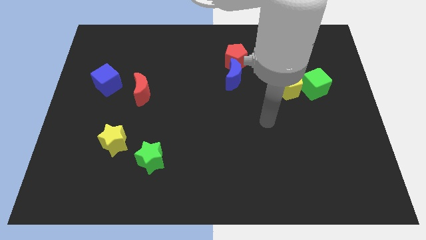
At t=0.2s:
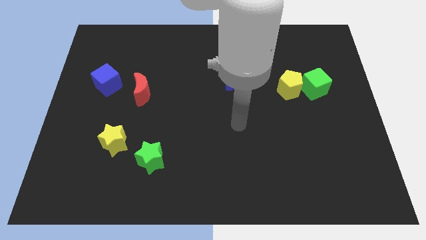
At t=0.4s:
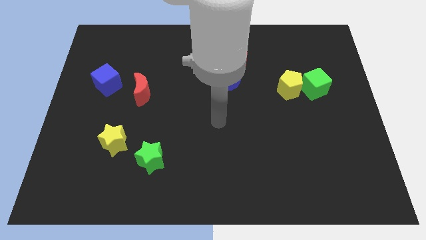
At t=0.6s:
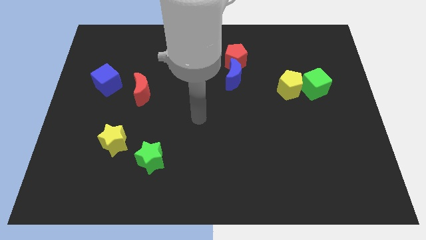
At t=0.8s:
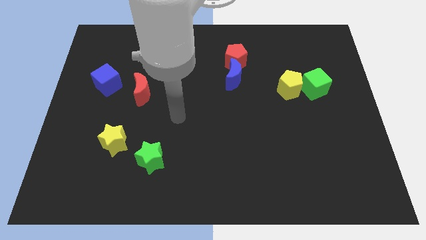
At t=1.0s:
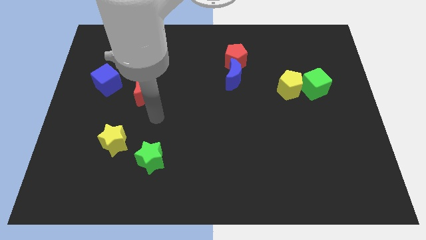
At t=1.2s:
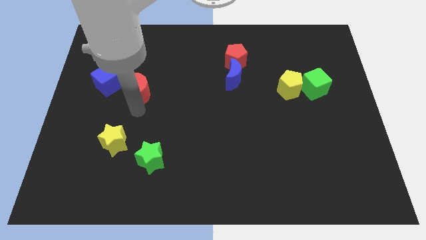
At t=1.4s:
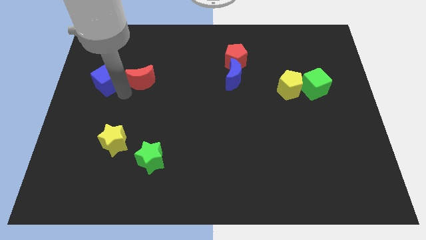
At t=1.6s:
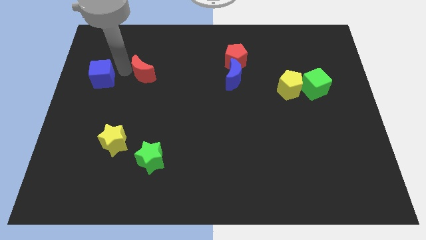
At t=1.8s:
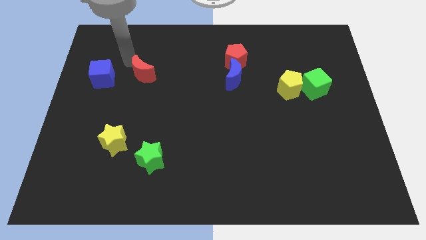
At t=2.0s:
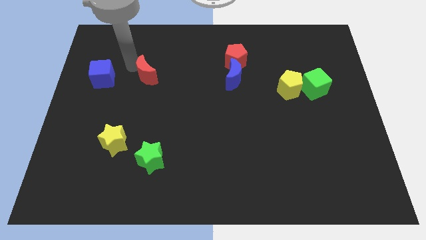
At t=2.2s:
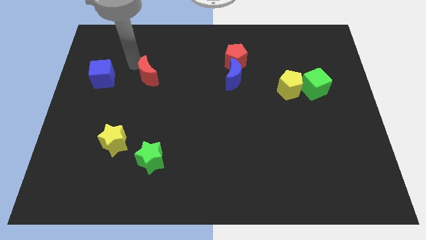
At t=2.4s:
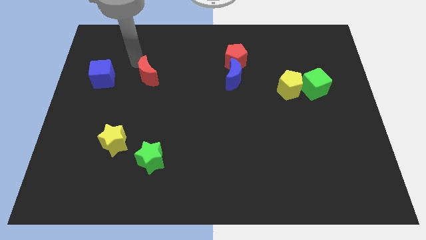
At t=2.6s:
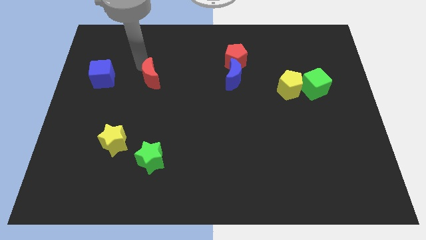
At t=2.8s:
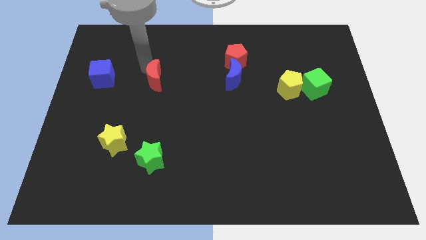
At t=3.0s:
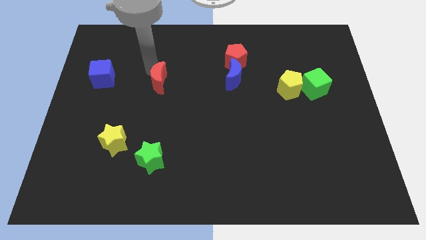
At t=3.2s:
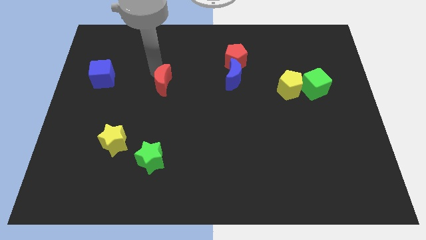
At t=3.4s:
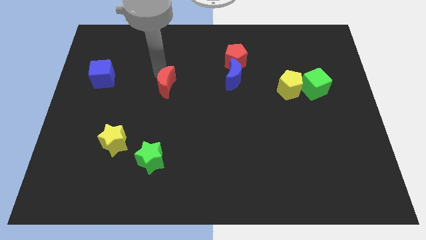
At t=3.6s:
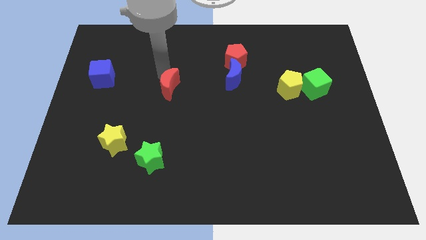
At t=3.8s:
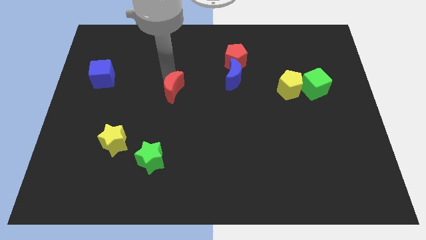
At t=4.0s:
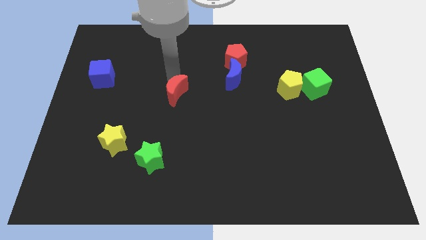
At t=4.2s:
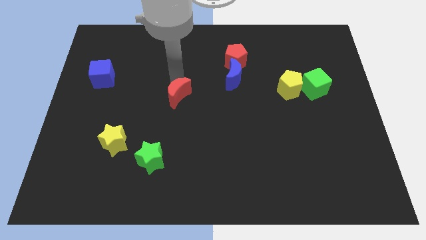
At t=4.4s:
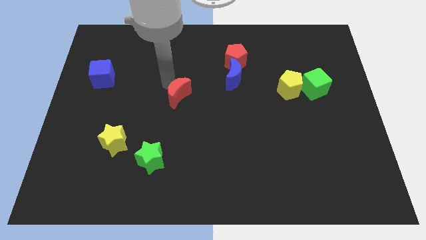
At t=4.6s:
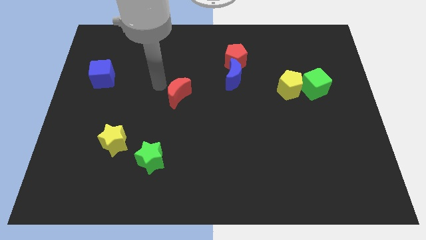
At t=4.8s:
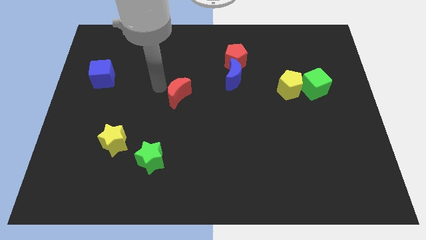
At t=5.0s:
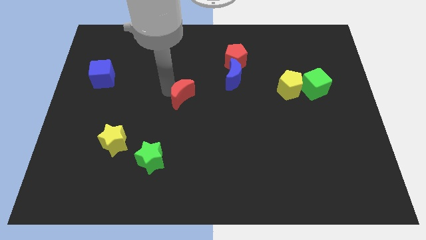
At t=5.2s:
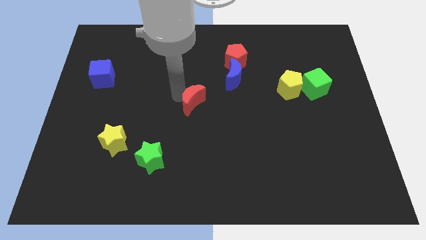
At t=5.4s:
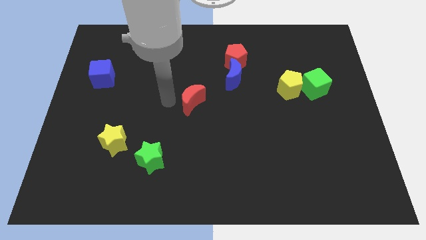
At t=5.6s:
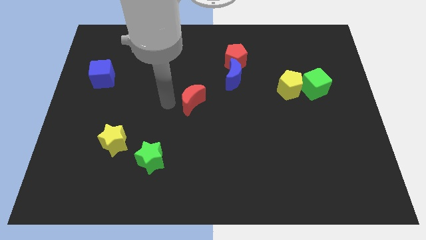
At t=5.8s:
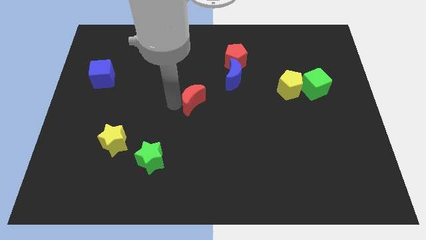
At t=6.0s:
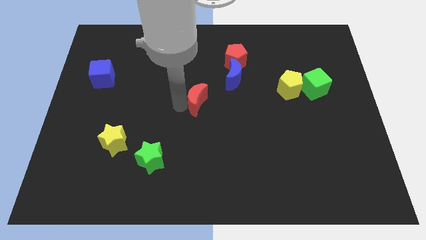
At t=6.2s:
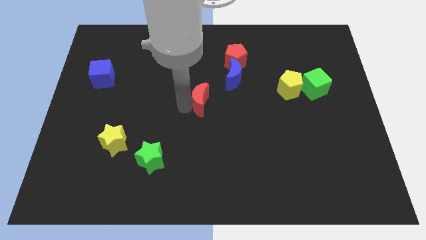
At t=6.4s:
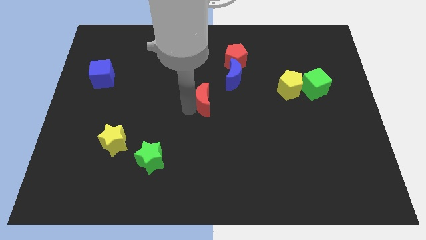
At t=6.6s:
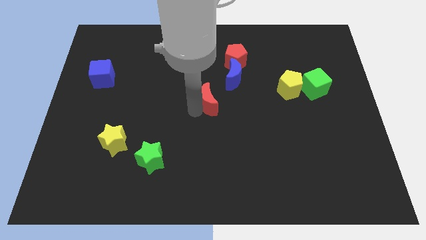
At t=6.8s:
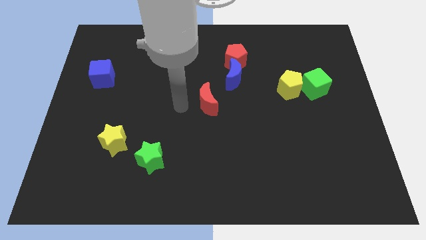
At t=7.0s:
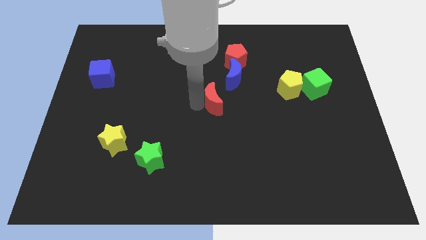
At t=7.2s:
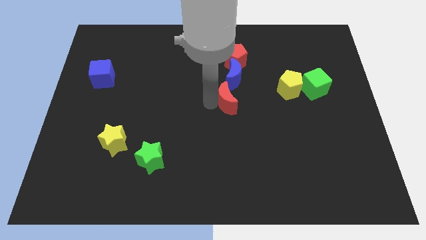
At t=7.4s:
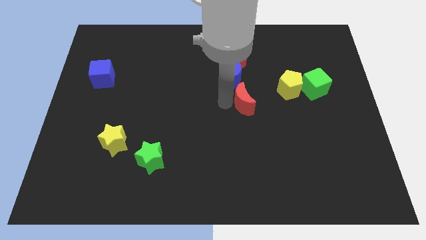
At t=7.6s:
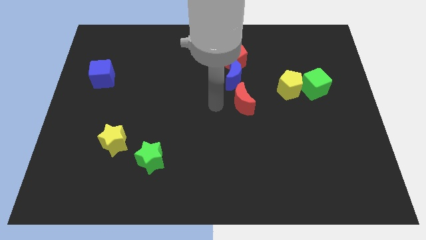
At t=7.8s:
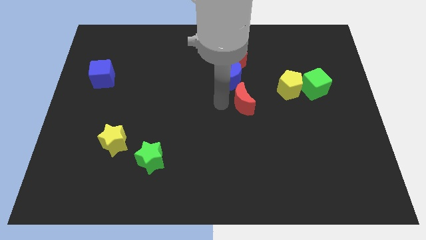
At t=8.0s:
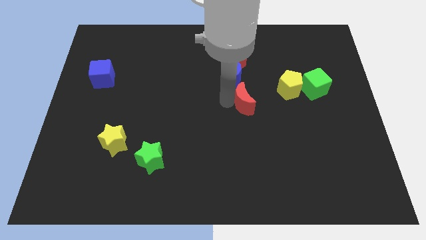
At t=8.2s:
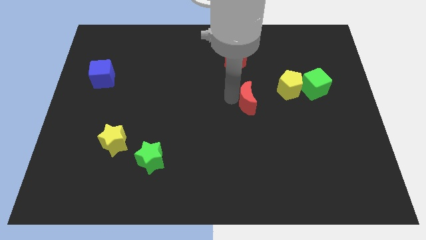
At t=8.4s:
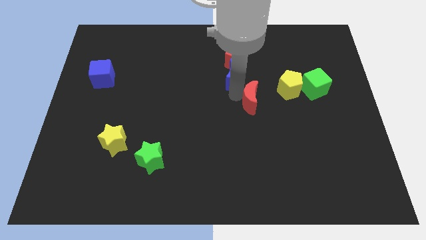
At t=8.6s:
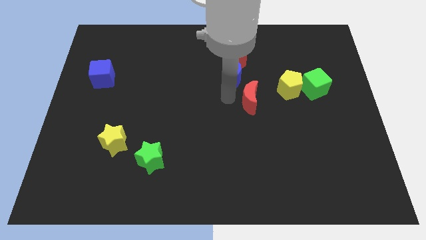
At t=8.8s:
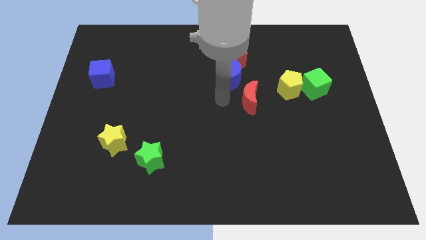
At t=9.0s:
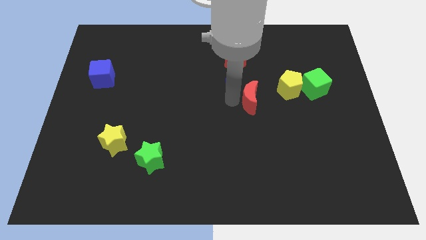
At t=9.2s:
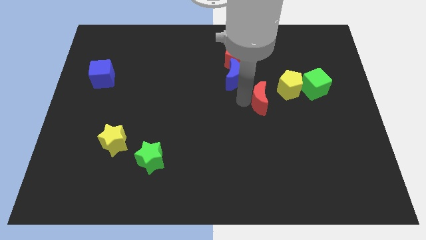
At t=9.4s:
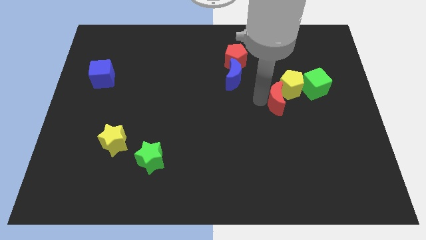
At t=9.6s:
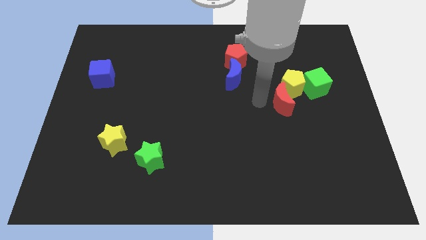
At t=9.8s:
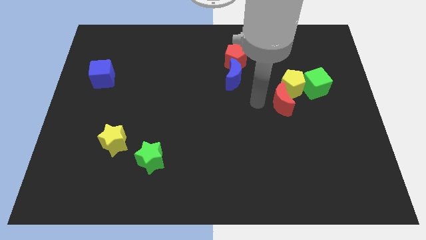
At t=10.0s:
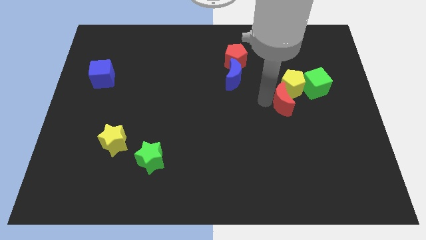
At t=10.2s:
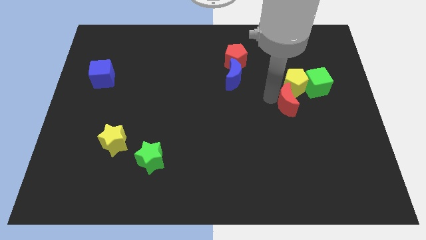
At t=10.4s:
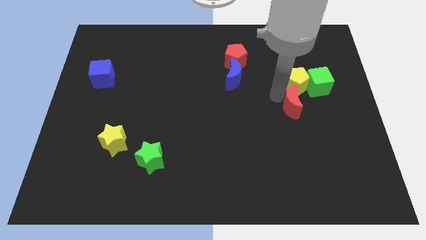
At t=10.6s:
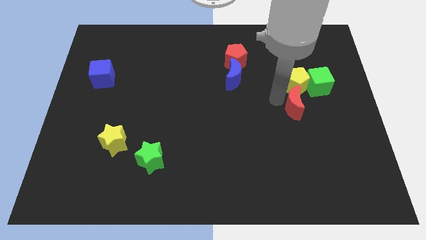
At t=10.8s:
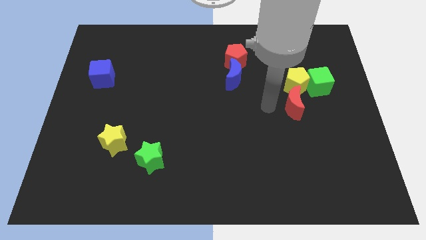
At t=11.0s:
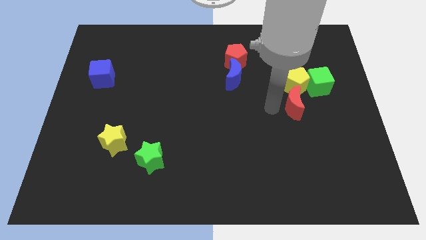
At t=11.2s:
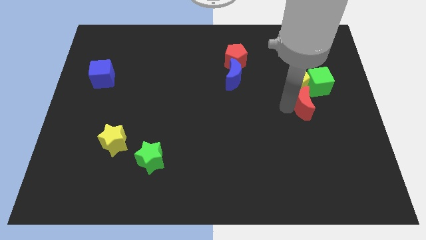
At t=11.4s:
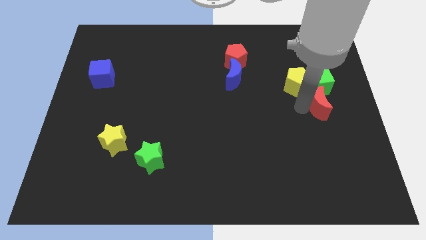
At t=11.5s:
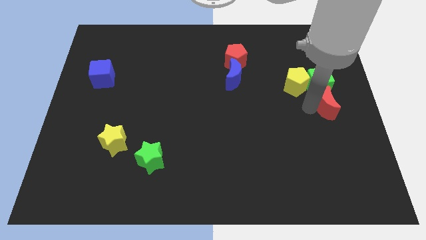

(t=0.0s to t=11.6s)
move the red moon to the right side of the board
